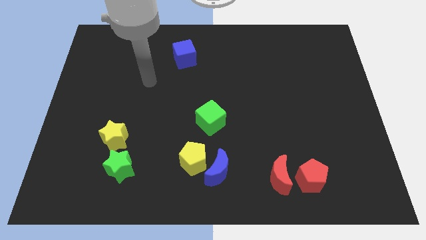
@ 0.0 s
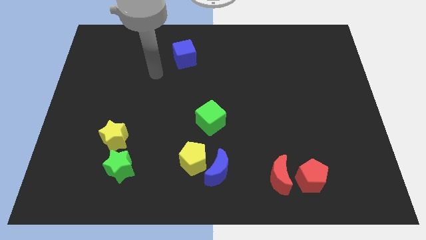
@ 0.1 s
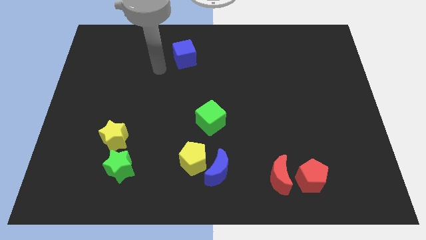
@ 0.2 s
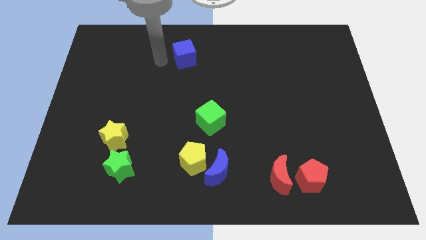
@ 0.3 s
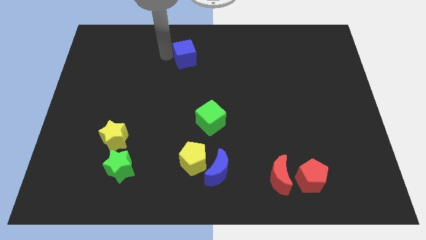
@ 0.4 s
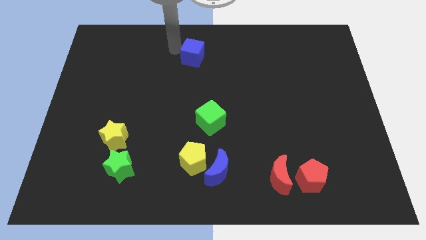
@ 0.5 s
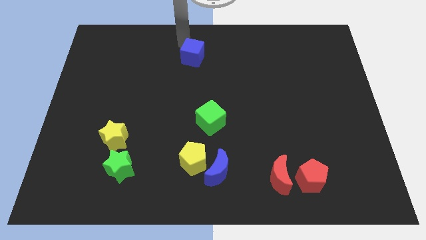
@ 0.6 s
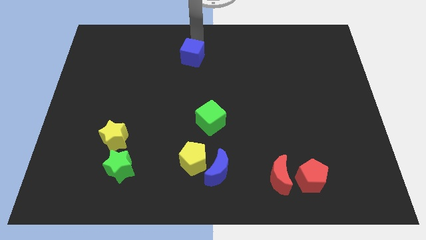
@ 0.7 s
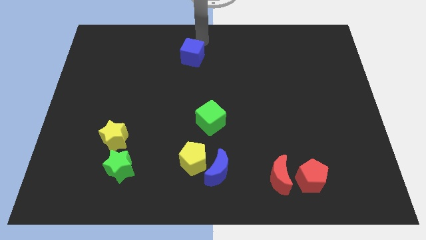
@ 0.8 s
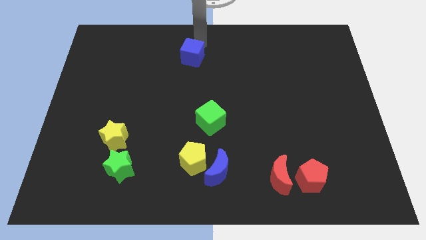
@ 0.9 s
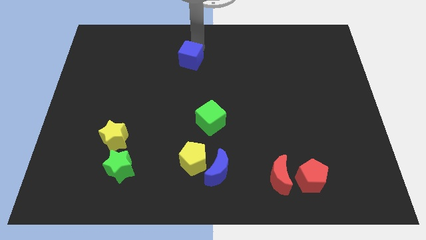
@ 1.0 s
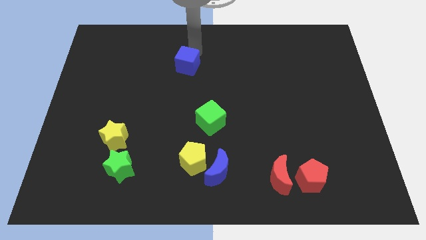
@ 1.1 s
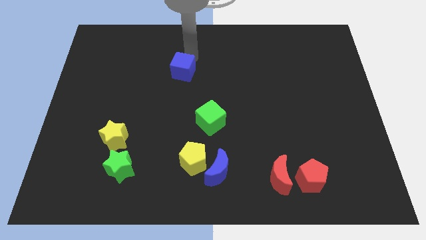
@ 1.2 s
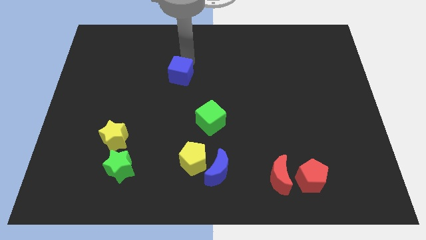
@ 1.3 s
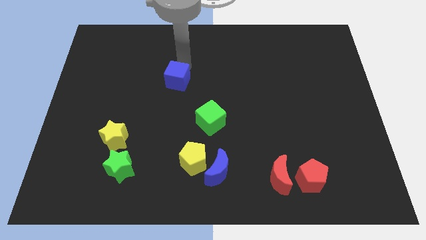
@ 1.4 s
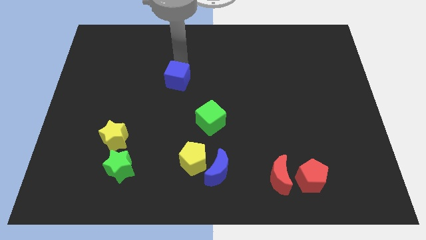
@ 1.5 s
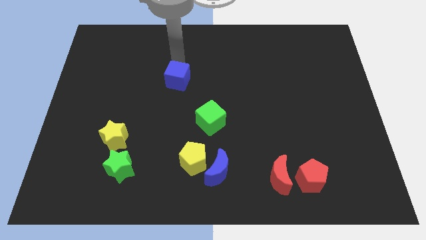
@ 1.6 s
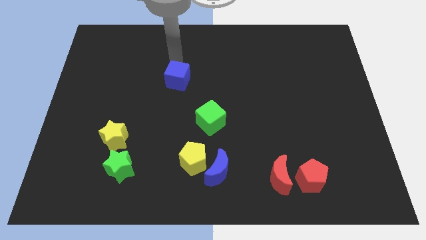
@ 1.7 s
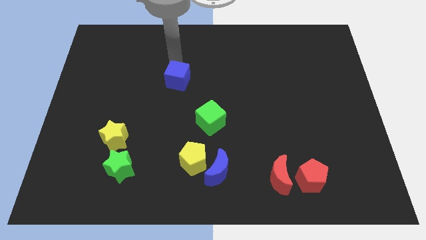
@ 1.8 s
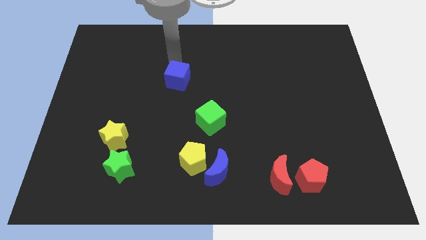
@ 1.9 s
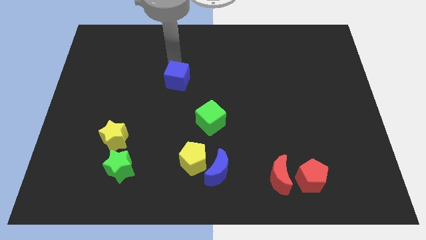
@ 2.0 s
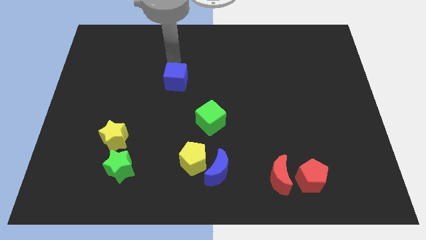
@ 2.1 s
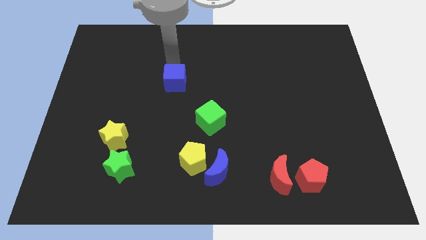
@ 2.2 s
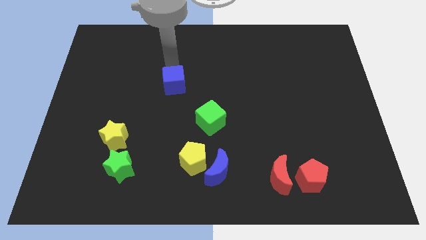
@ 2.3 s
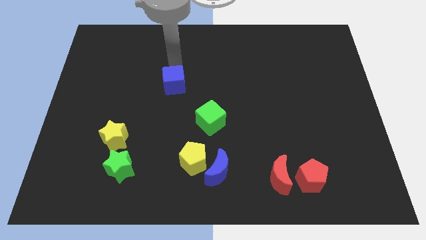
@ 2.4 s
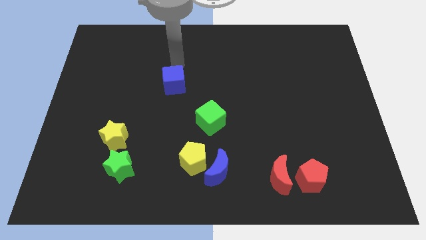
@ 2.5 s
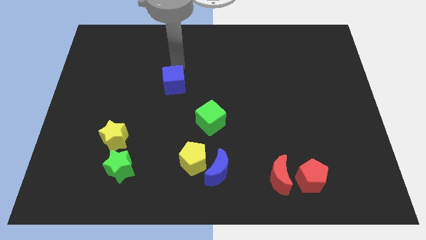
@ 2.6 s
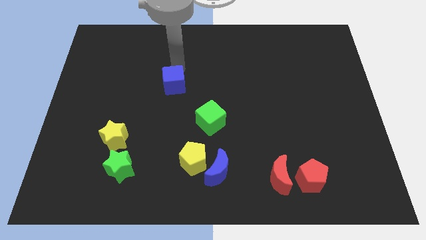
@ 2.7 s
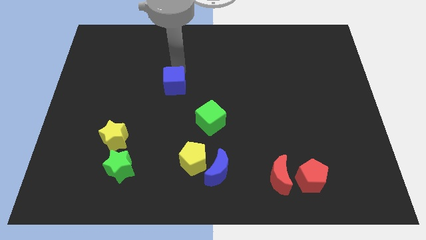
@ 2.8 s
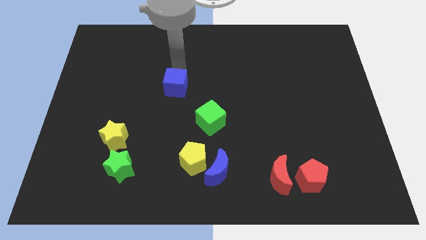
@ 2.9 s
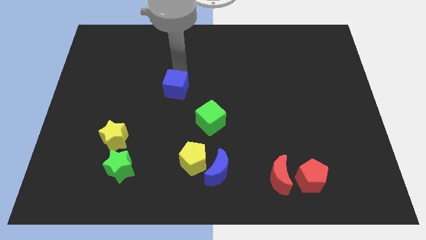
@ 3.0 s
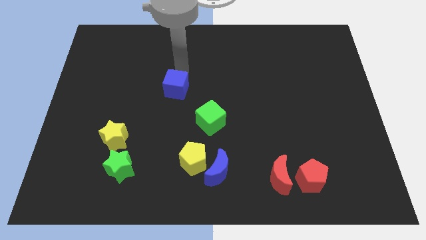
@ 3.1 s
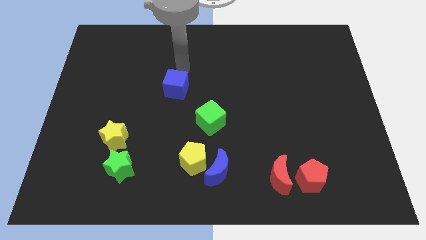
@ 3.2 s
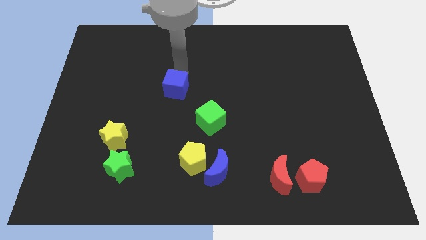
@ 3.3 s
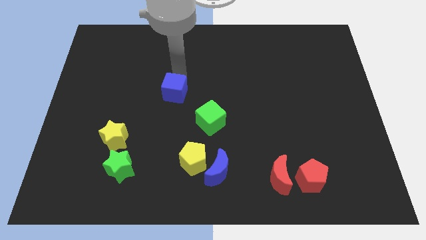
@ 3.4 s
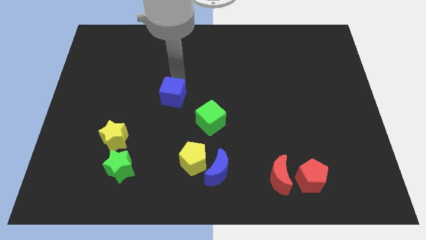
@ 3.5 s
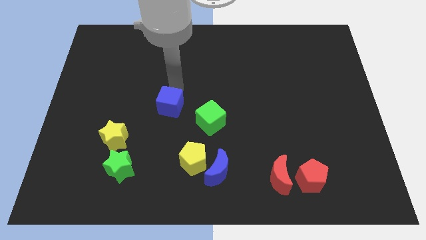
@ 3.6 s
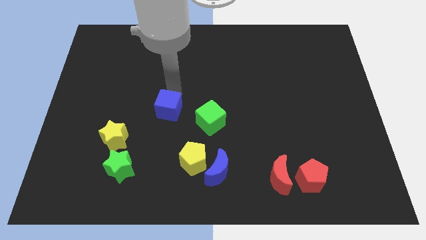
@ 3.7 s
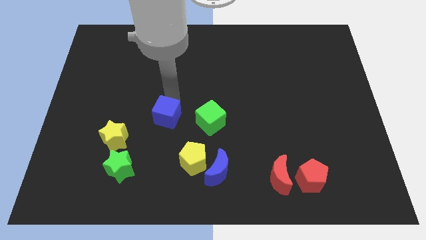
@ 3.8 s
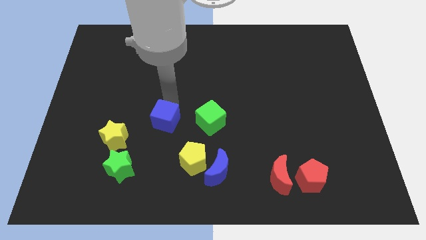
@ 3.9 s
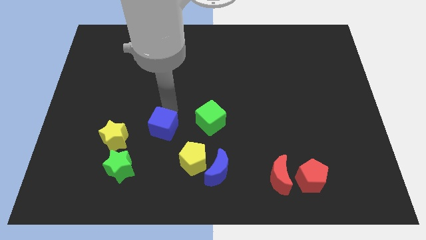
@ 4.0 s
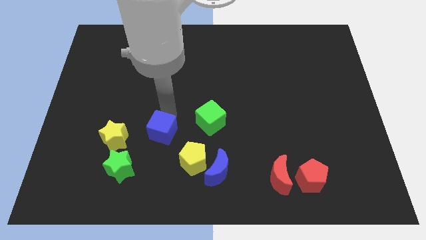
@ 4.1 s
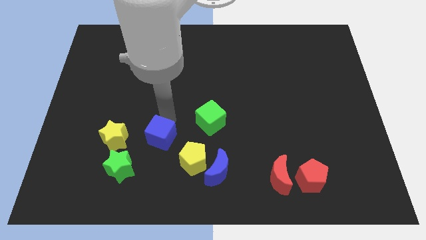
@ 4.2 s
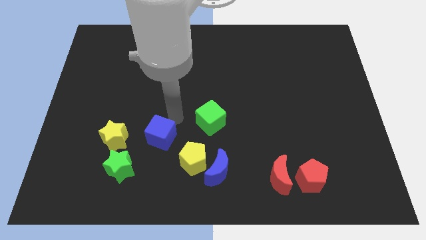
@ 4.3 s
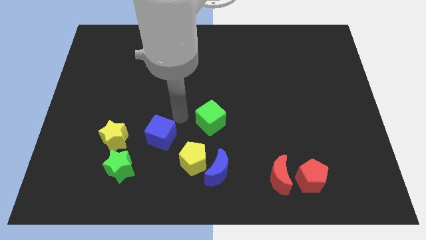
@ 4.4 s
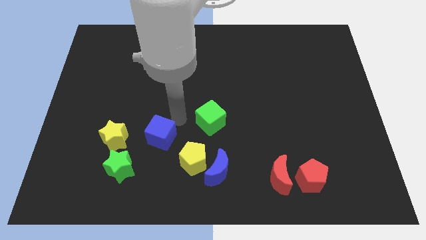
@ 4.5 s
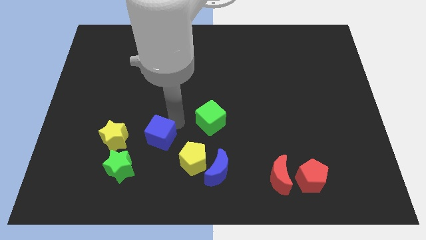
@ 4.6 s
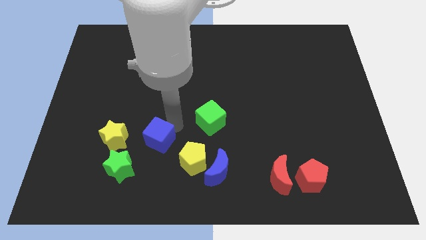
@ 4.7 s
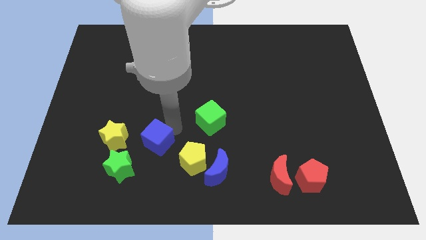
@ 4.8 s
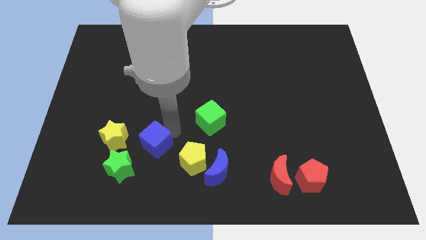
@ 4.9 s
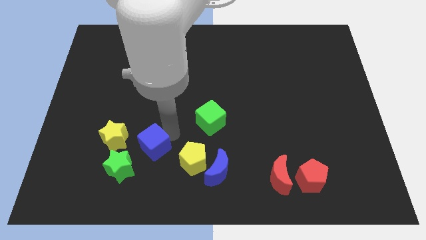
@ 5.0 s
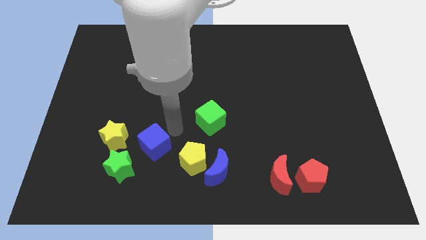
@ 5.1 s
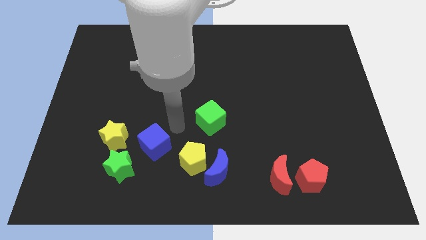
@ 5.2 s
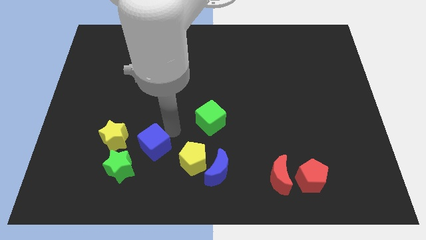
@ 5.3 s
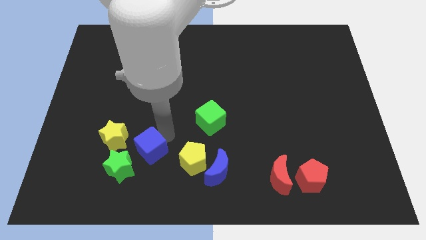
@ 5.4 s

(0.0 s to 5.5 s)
put the blue cube diagonally down and to the right of the yellow star

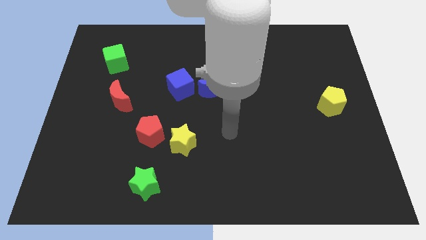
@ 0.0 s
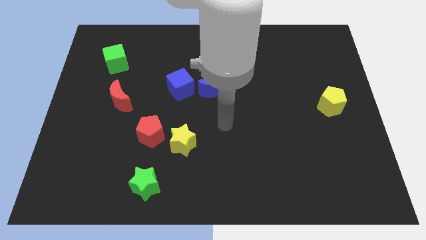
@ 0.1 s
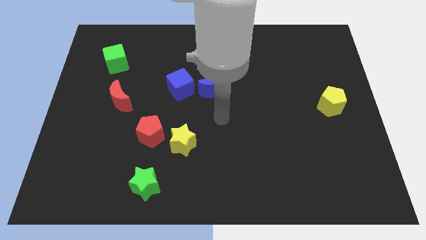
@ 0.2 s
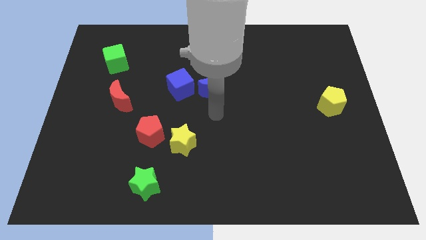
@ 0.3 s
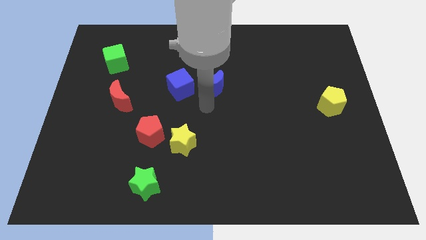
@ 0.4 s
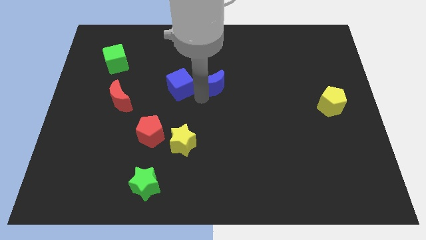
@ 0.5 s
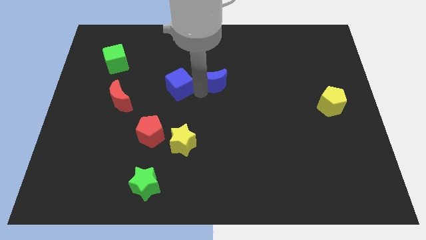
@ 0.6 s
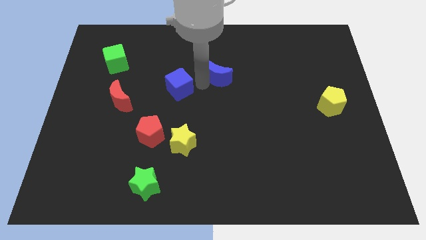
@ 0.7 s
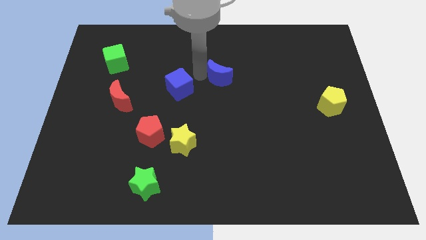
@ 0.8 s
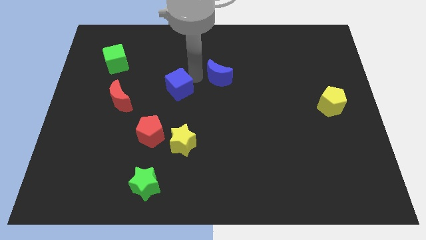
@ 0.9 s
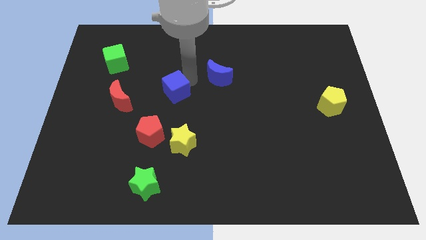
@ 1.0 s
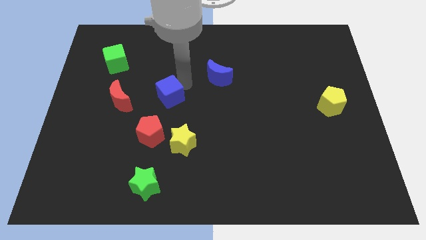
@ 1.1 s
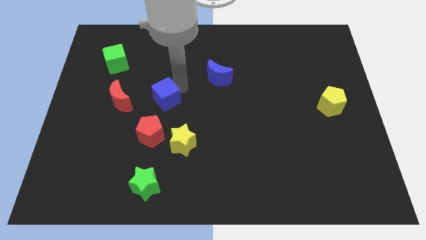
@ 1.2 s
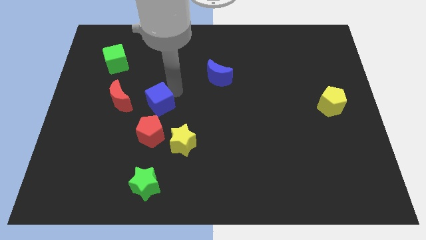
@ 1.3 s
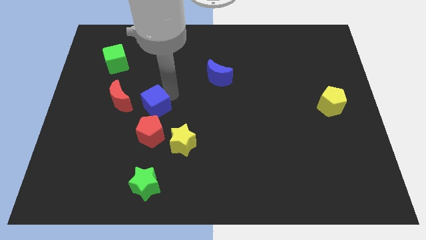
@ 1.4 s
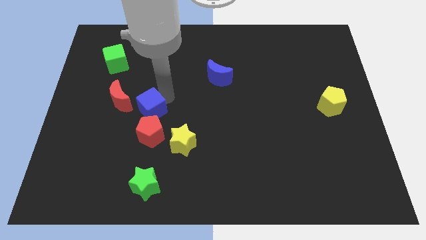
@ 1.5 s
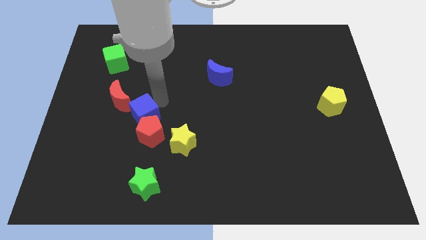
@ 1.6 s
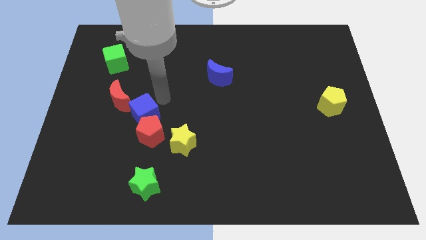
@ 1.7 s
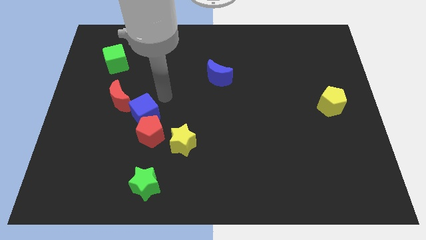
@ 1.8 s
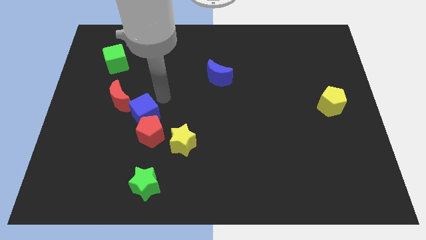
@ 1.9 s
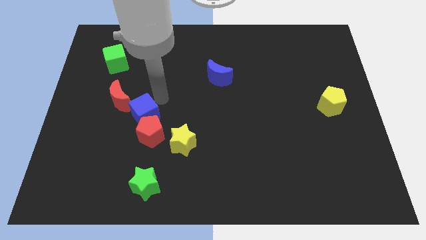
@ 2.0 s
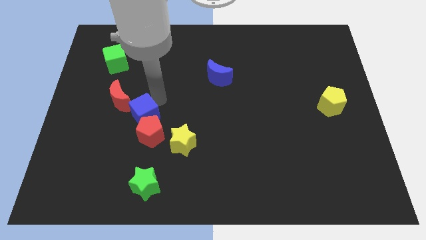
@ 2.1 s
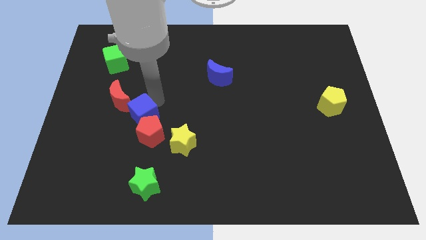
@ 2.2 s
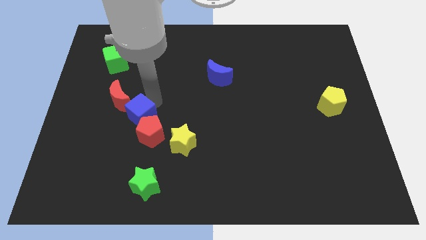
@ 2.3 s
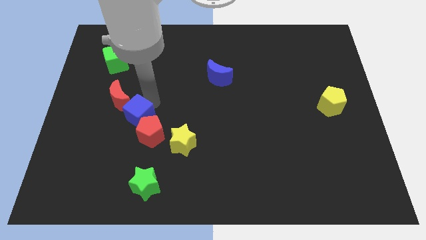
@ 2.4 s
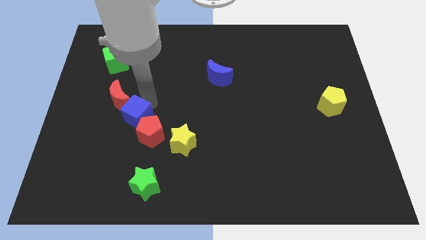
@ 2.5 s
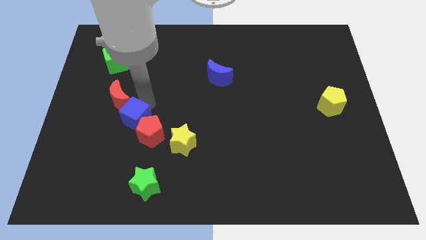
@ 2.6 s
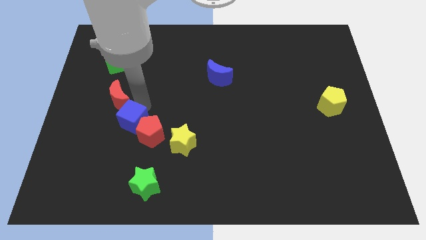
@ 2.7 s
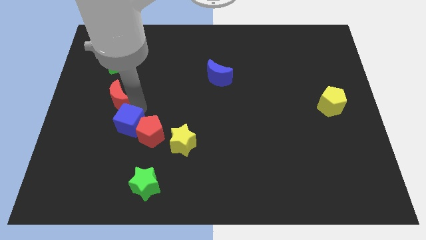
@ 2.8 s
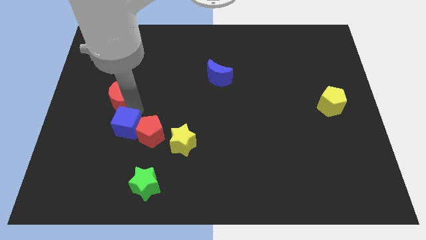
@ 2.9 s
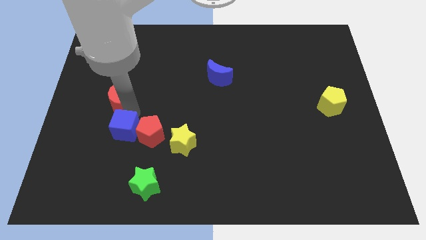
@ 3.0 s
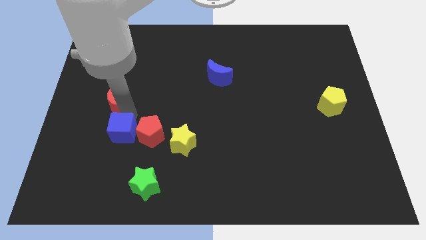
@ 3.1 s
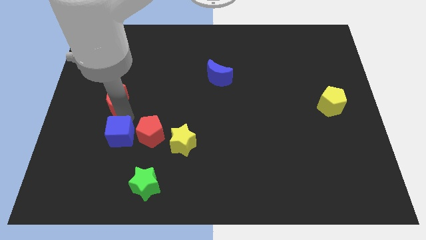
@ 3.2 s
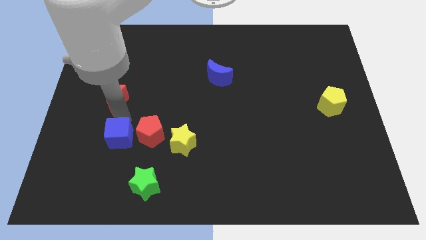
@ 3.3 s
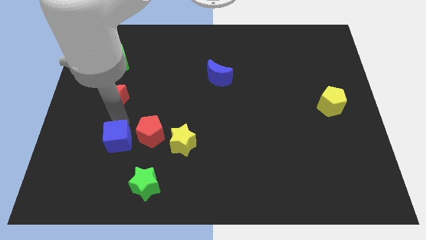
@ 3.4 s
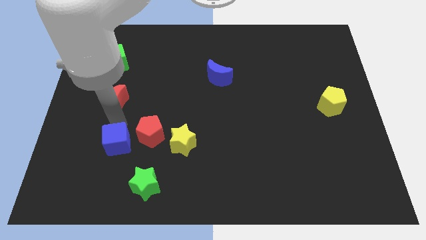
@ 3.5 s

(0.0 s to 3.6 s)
push the blue cube to the top left of the green star
